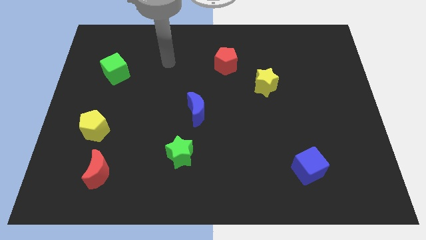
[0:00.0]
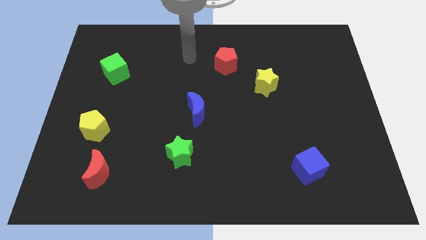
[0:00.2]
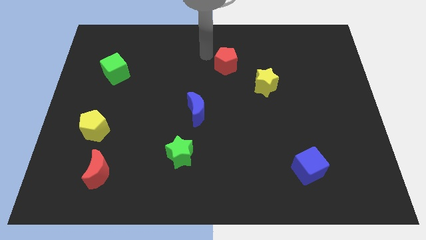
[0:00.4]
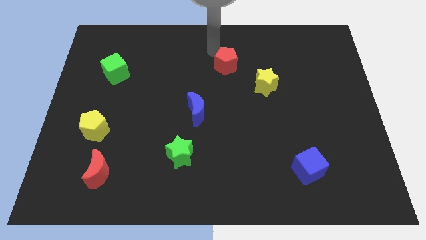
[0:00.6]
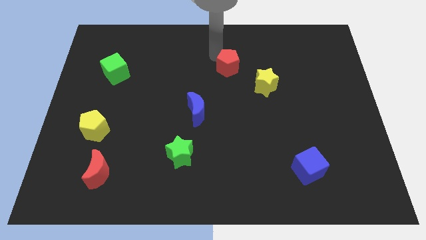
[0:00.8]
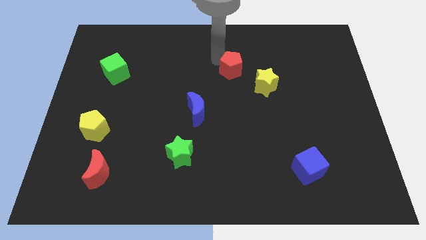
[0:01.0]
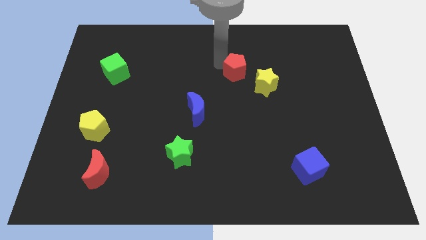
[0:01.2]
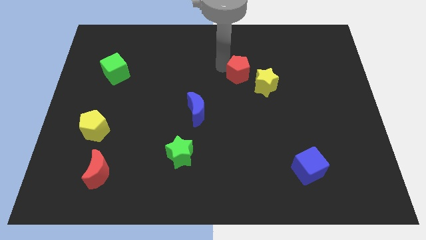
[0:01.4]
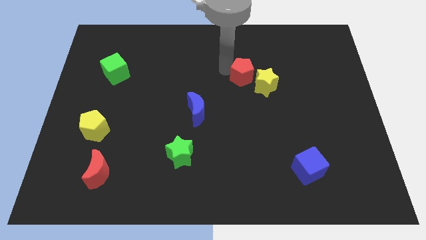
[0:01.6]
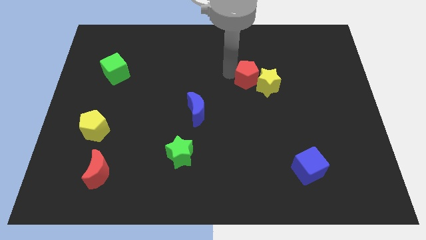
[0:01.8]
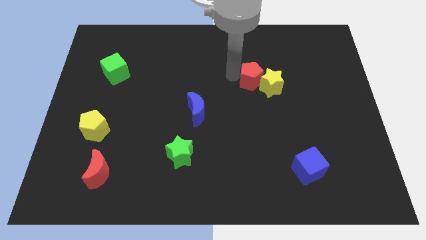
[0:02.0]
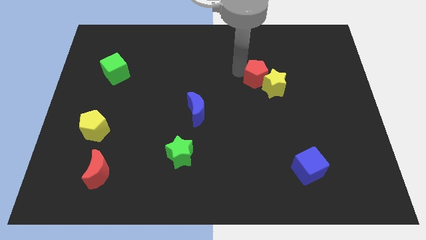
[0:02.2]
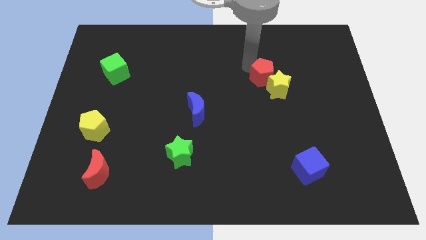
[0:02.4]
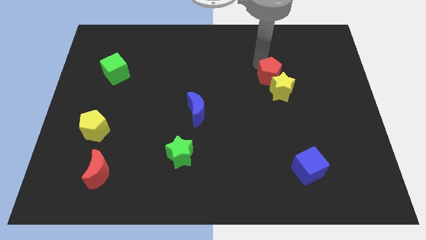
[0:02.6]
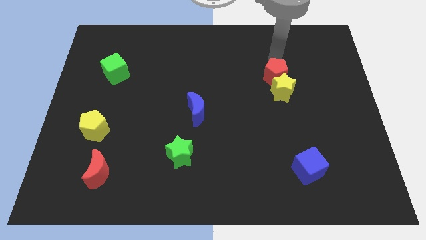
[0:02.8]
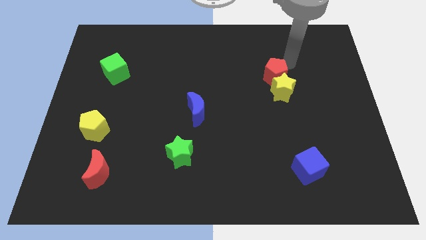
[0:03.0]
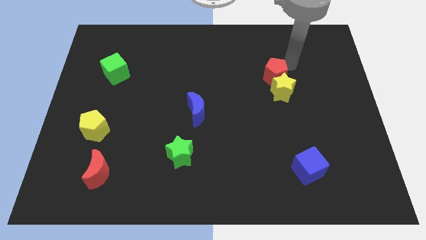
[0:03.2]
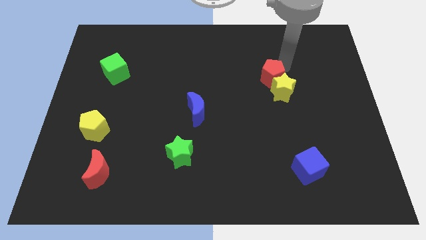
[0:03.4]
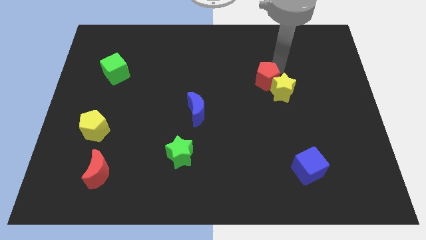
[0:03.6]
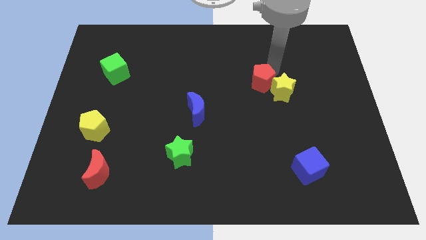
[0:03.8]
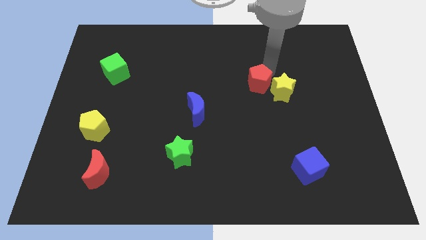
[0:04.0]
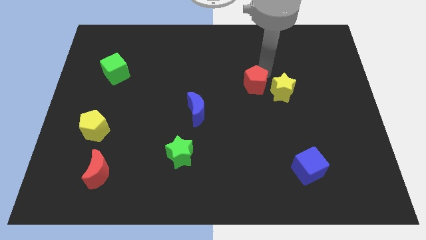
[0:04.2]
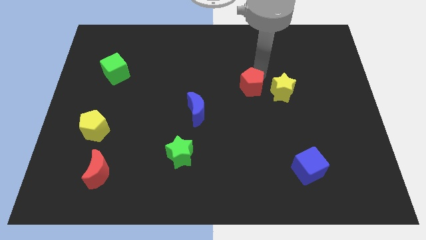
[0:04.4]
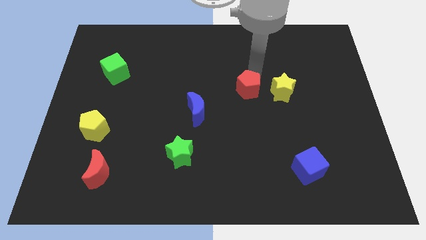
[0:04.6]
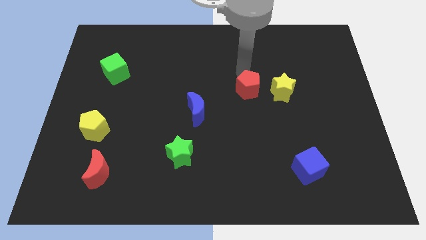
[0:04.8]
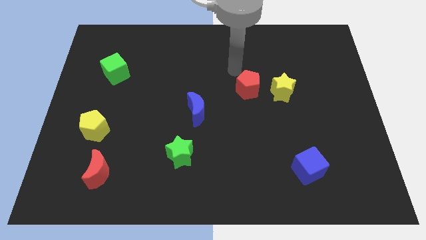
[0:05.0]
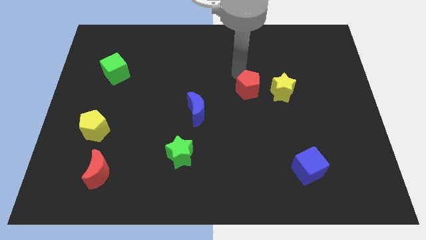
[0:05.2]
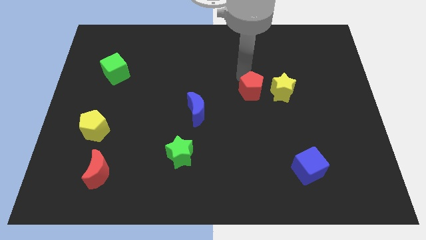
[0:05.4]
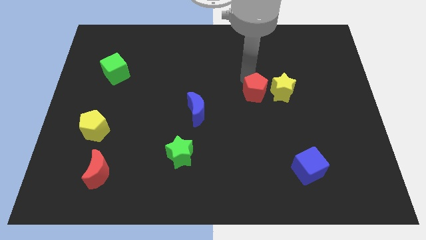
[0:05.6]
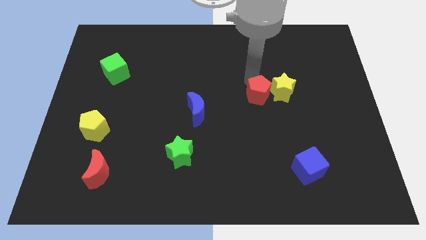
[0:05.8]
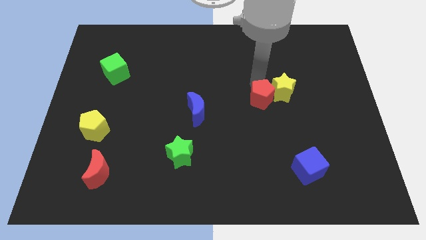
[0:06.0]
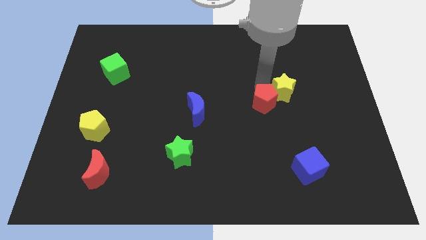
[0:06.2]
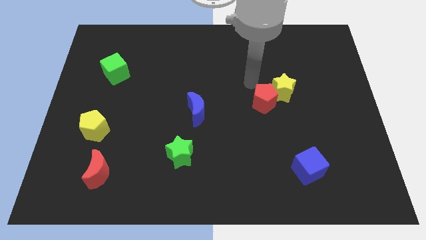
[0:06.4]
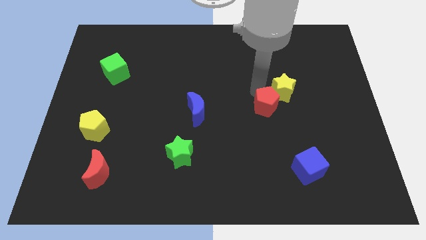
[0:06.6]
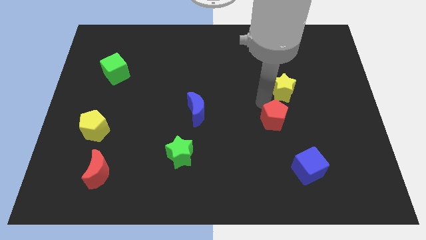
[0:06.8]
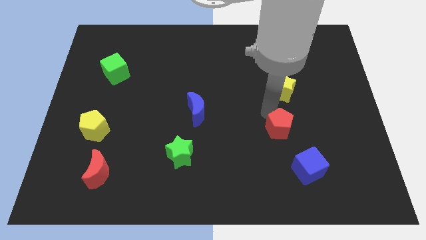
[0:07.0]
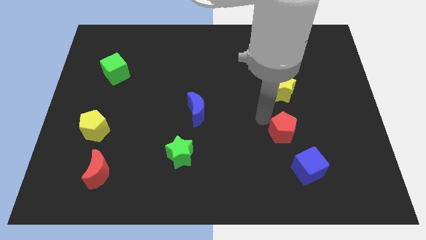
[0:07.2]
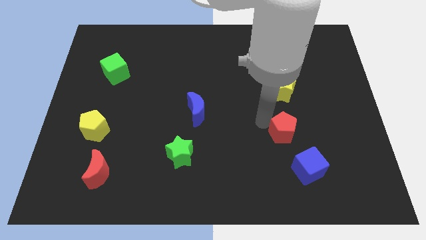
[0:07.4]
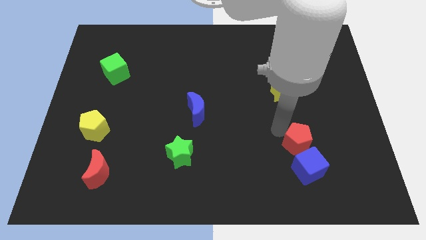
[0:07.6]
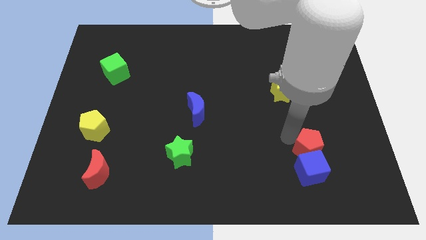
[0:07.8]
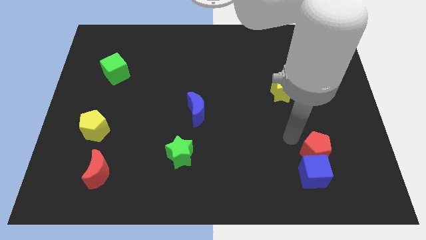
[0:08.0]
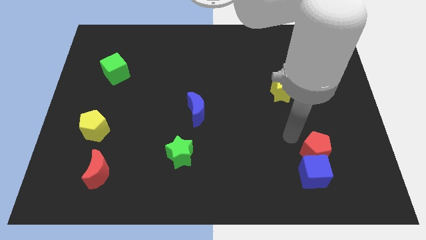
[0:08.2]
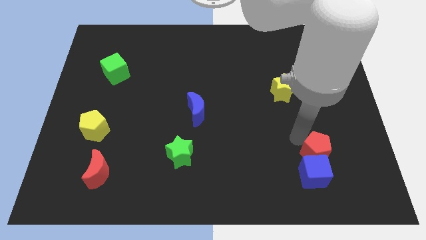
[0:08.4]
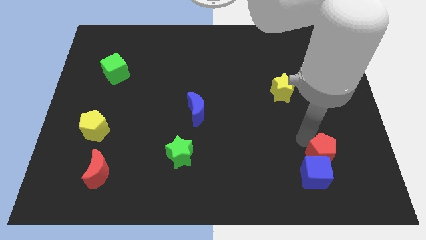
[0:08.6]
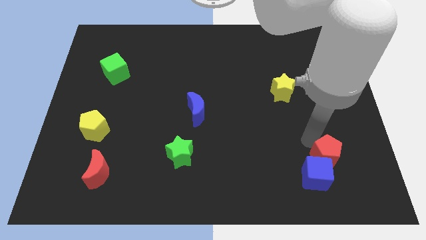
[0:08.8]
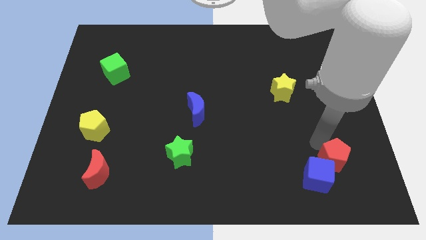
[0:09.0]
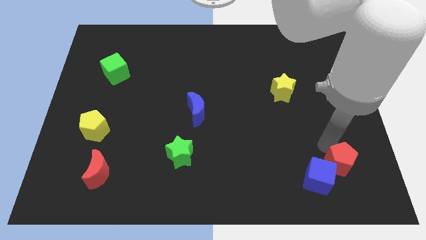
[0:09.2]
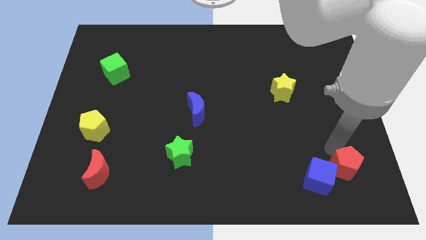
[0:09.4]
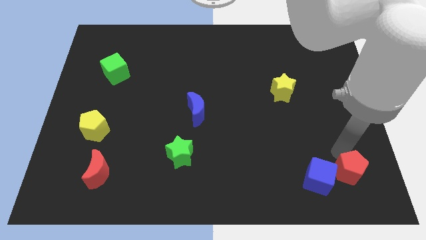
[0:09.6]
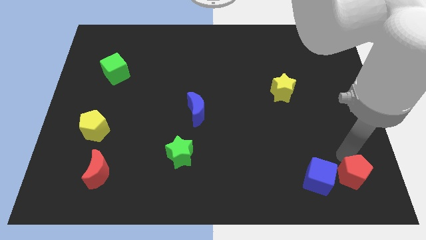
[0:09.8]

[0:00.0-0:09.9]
move the red pentagon to the lower right corner

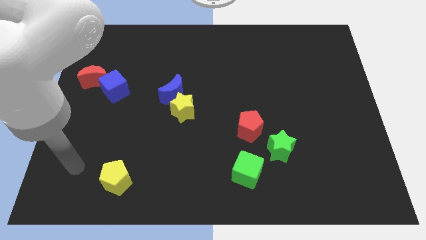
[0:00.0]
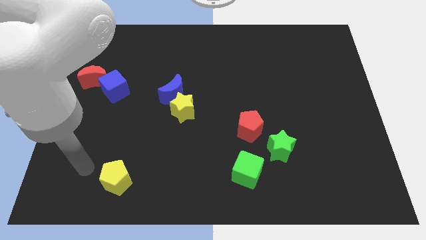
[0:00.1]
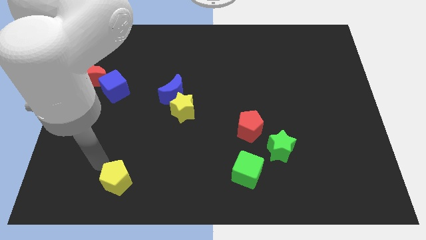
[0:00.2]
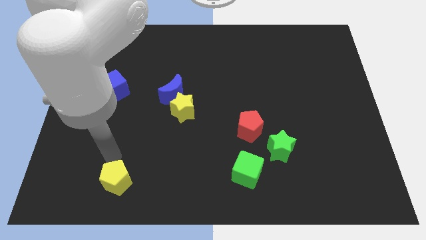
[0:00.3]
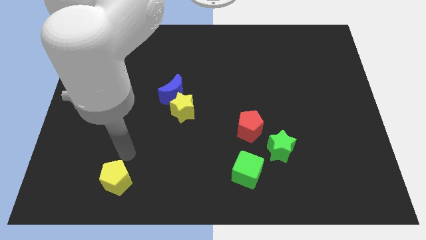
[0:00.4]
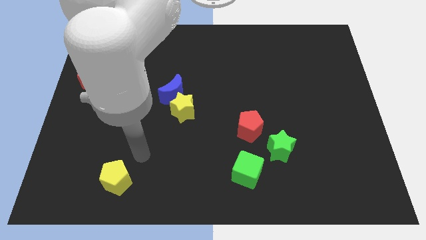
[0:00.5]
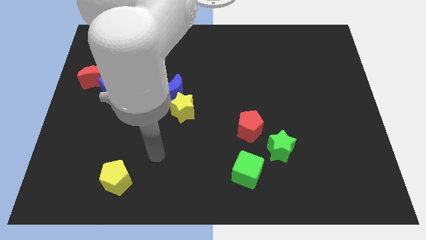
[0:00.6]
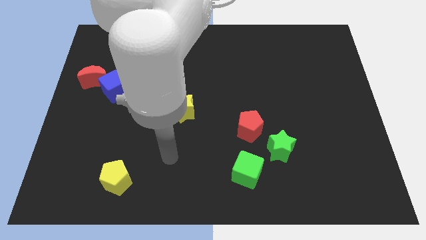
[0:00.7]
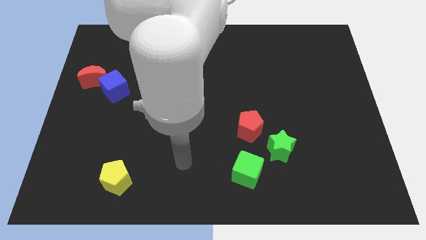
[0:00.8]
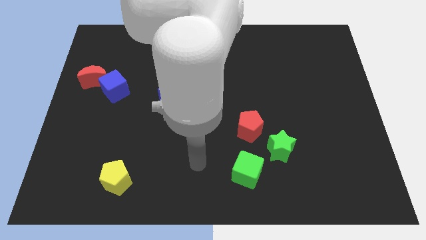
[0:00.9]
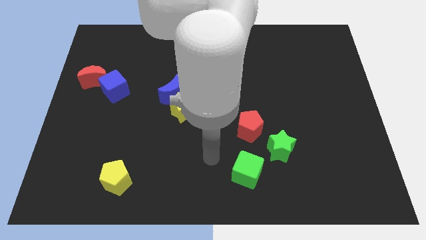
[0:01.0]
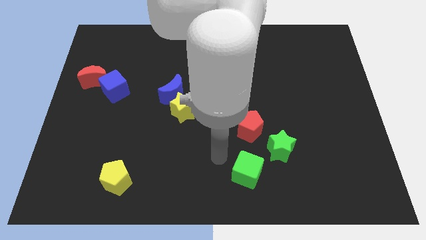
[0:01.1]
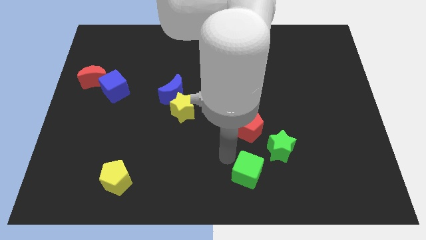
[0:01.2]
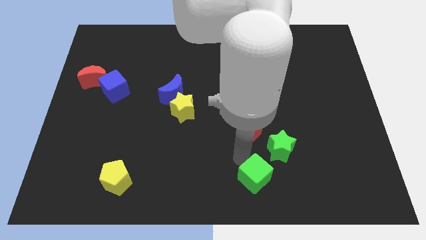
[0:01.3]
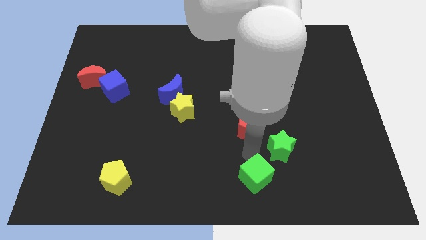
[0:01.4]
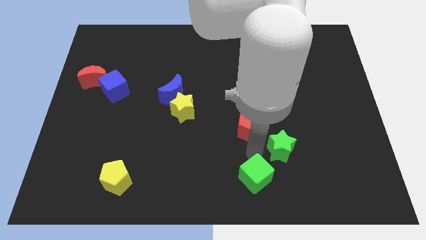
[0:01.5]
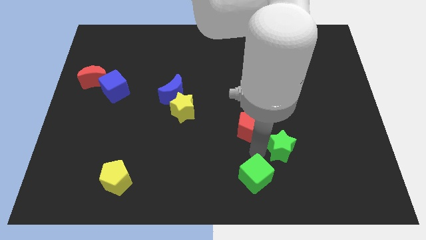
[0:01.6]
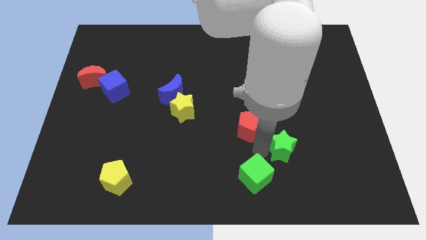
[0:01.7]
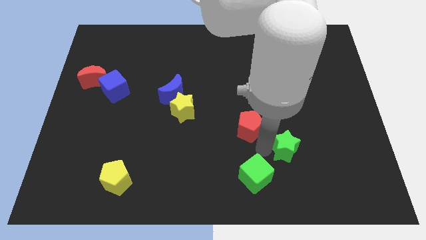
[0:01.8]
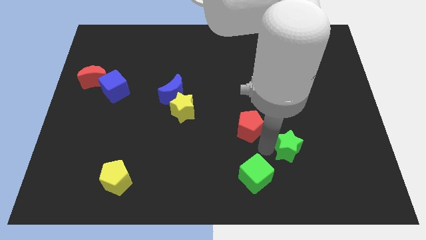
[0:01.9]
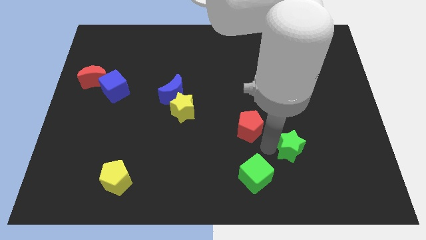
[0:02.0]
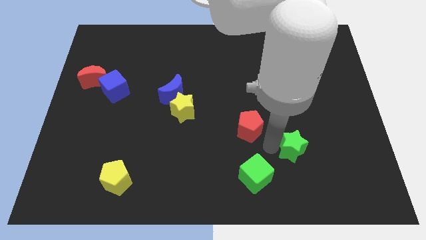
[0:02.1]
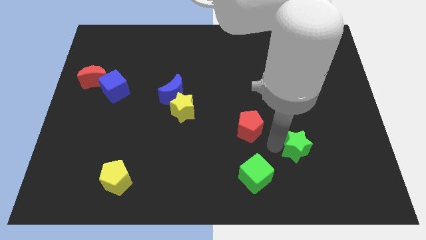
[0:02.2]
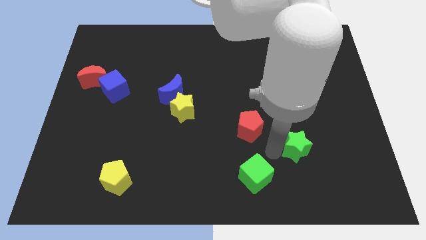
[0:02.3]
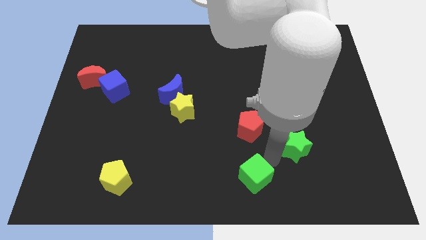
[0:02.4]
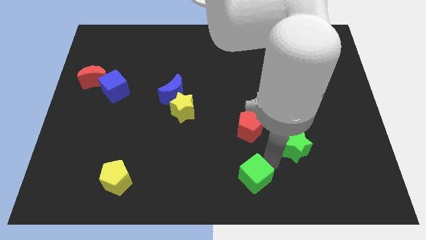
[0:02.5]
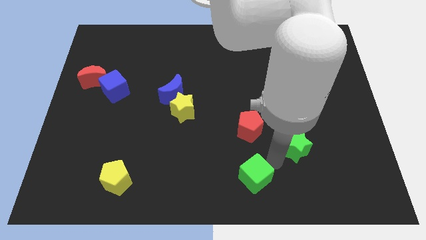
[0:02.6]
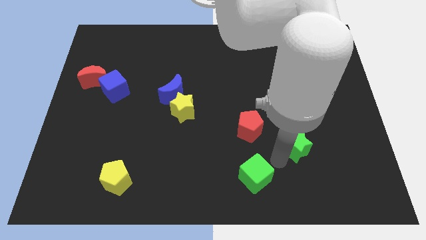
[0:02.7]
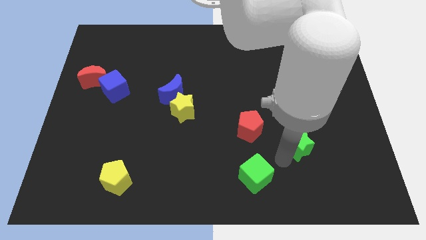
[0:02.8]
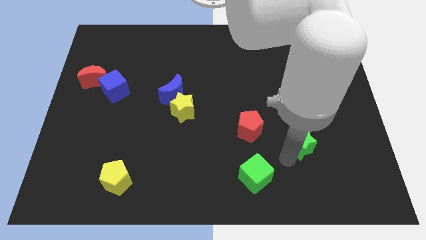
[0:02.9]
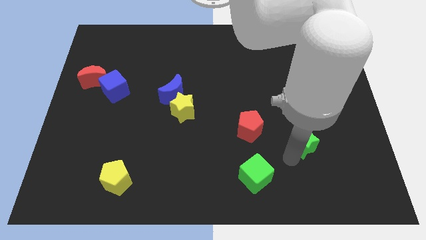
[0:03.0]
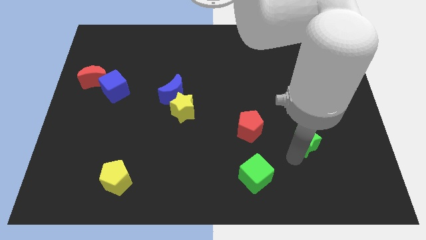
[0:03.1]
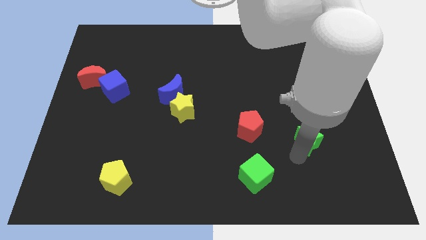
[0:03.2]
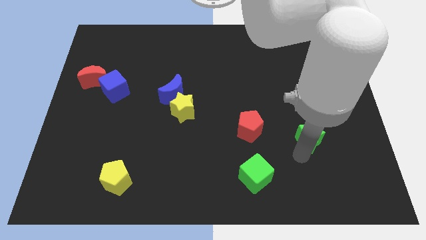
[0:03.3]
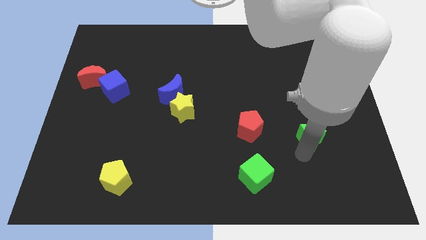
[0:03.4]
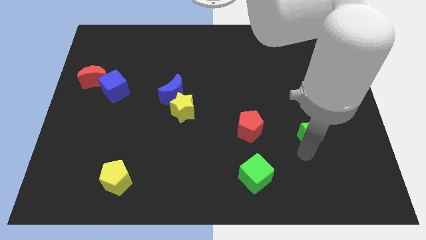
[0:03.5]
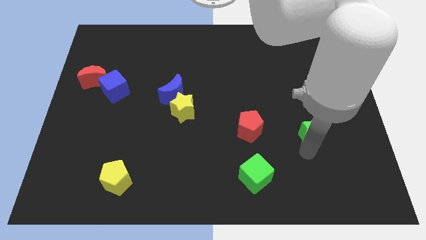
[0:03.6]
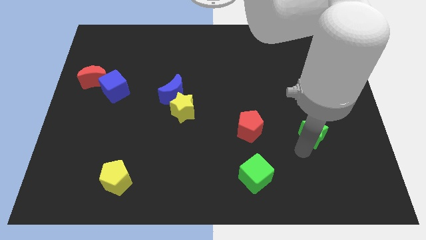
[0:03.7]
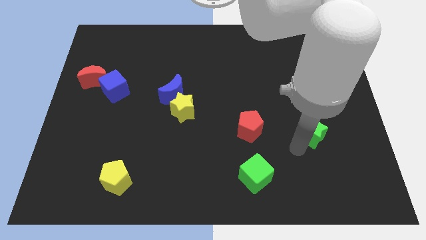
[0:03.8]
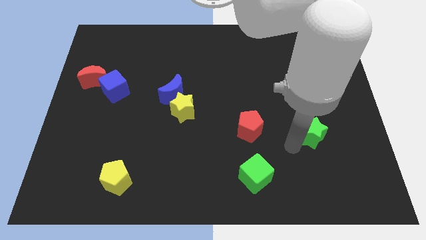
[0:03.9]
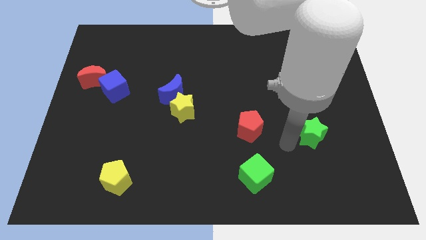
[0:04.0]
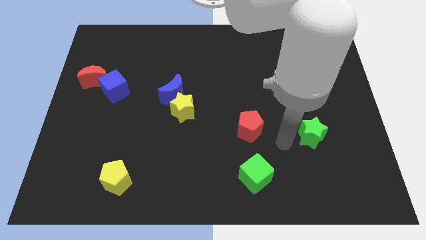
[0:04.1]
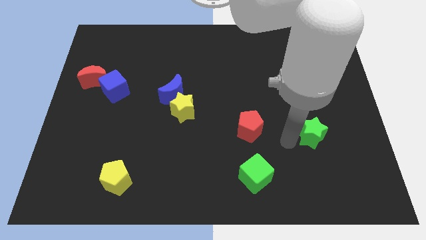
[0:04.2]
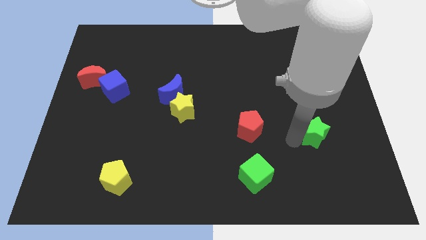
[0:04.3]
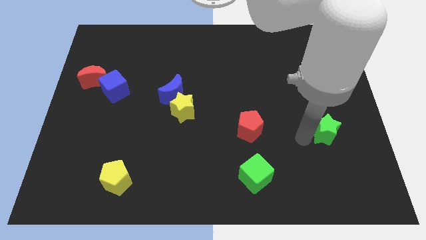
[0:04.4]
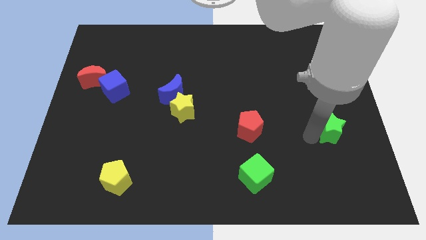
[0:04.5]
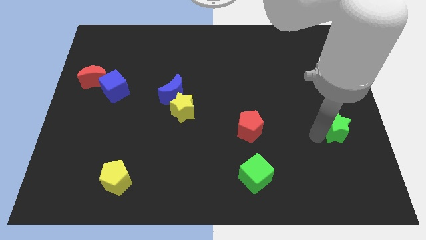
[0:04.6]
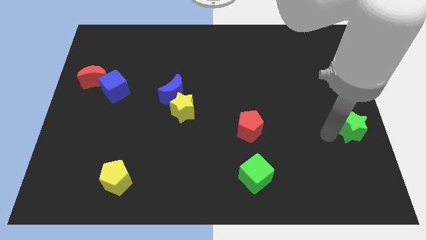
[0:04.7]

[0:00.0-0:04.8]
slide the green star to the right side
